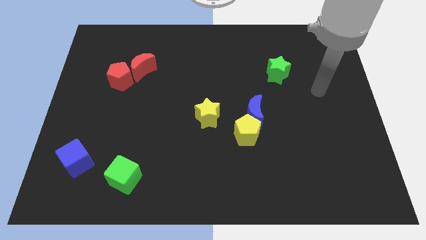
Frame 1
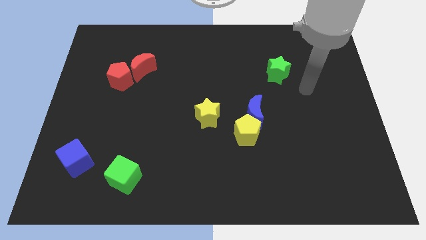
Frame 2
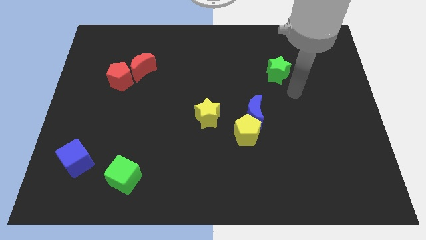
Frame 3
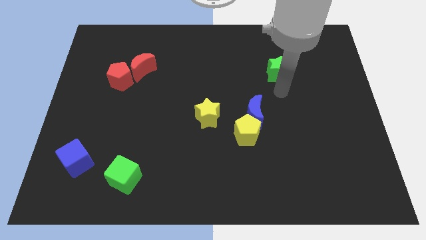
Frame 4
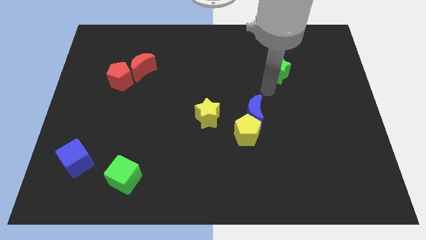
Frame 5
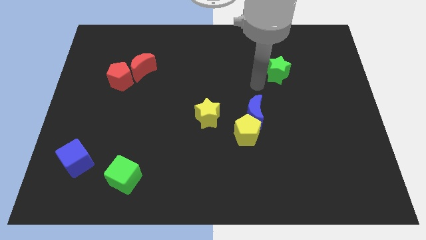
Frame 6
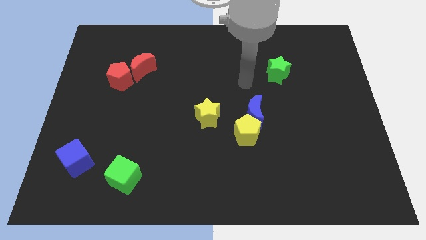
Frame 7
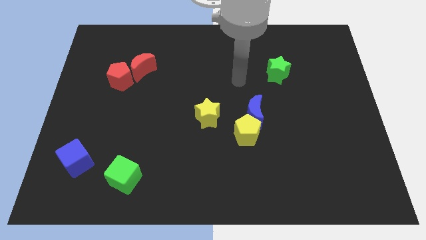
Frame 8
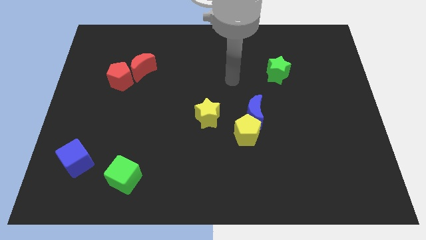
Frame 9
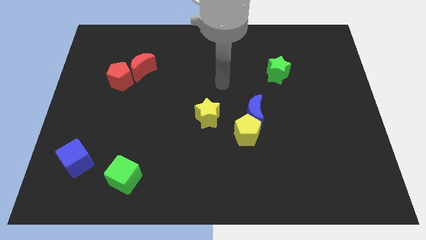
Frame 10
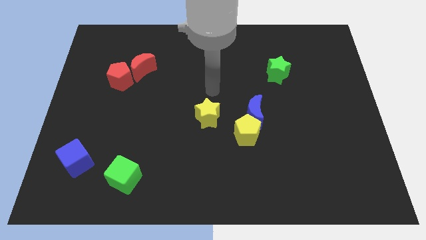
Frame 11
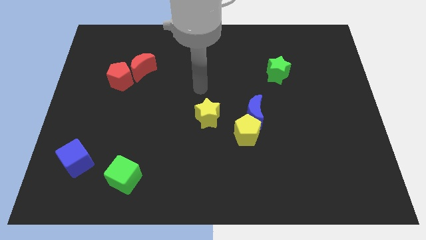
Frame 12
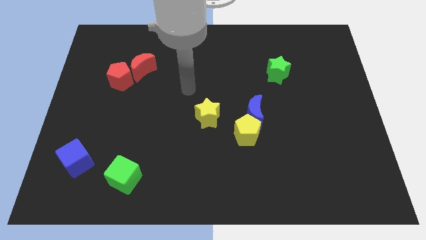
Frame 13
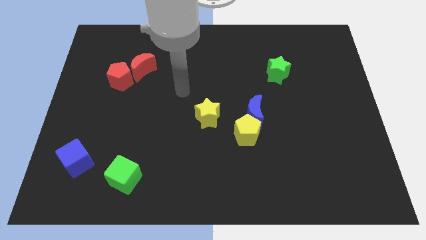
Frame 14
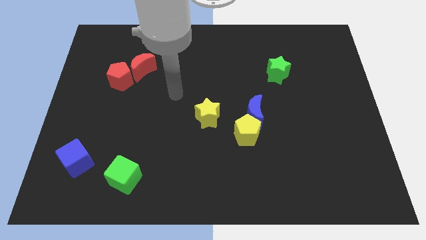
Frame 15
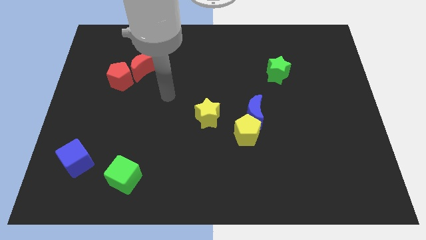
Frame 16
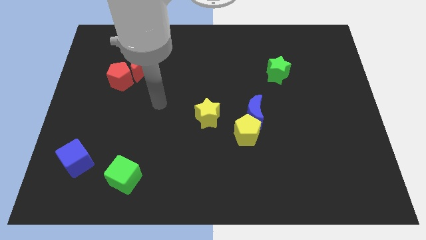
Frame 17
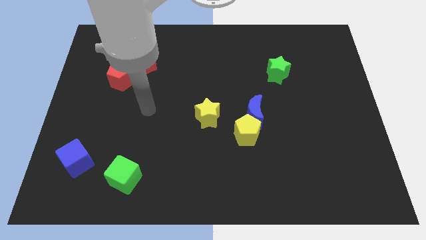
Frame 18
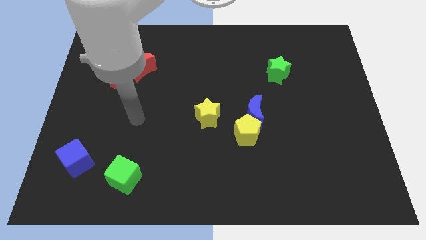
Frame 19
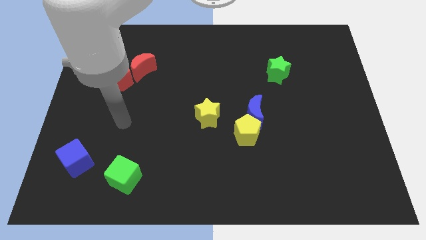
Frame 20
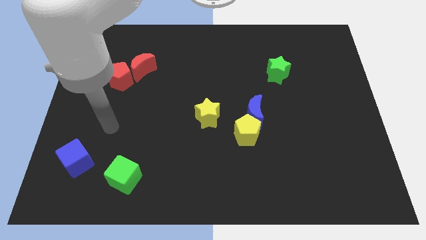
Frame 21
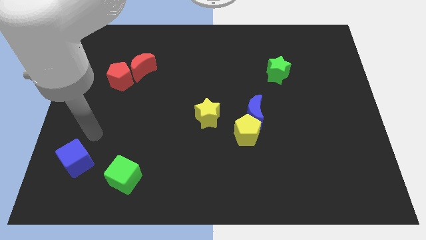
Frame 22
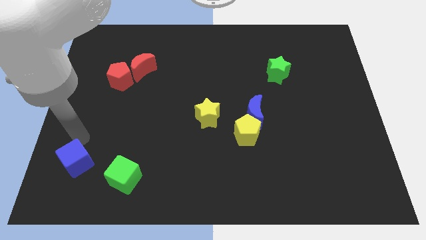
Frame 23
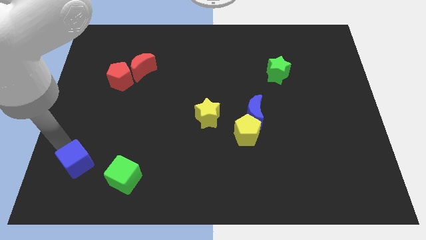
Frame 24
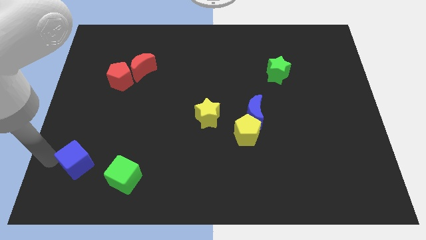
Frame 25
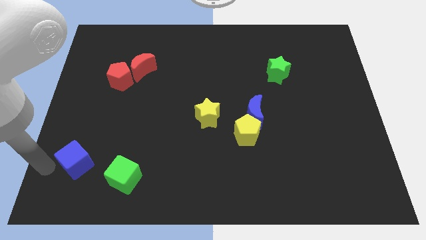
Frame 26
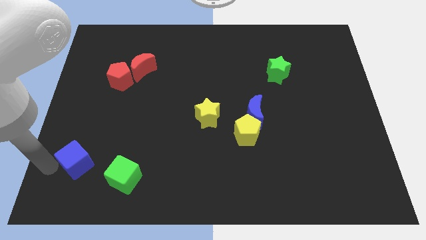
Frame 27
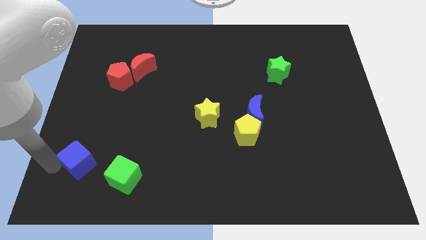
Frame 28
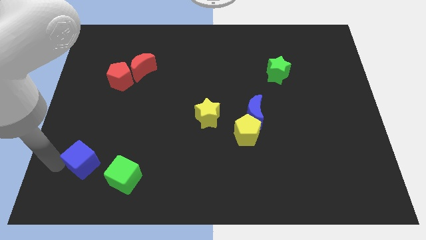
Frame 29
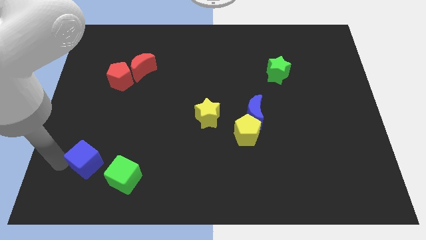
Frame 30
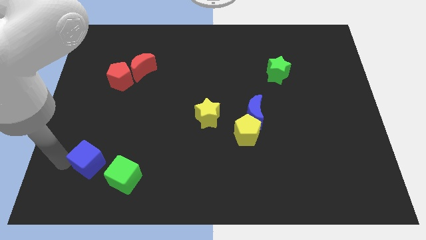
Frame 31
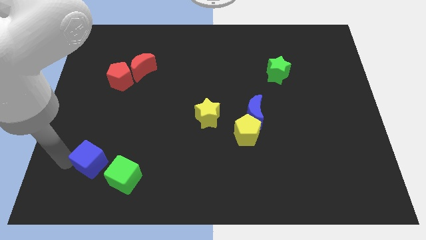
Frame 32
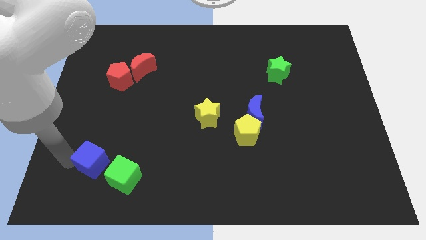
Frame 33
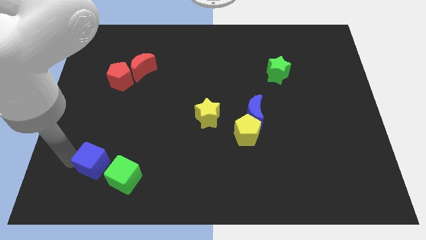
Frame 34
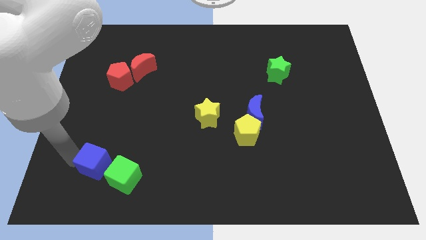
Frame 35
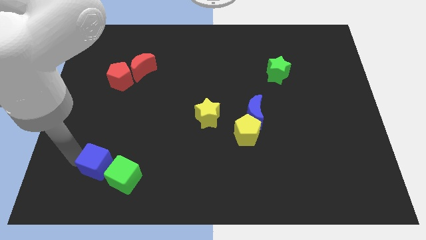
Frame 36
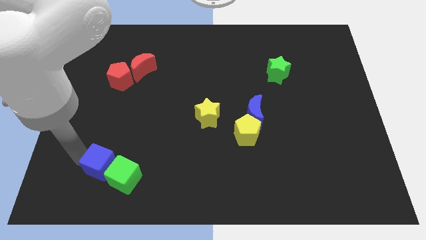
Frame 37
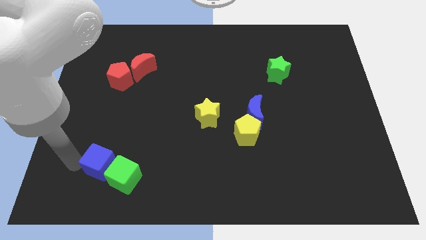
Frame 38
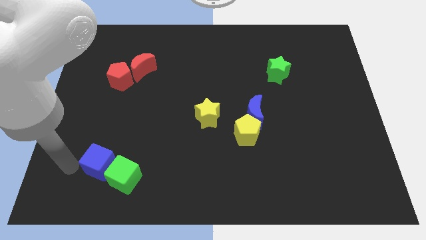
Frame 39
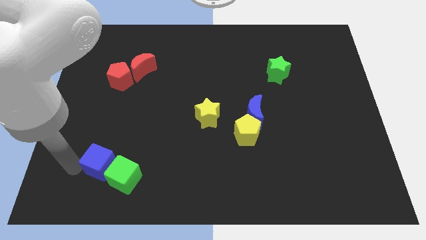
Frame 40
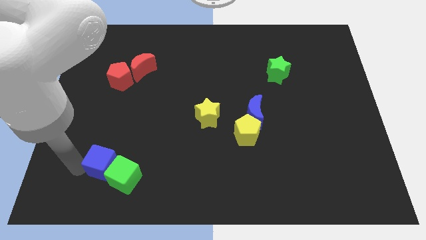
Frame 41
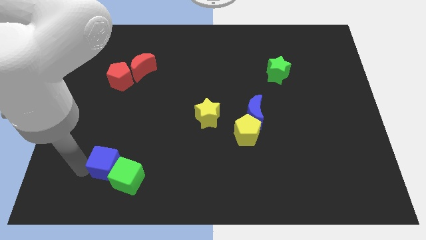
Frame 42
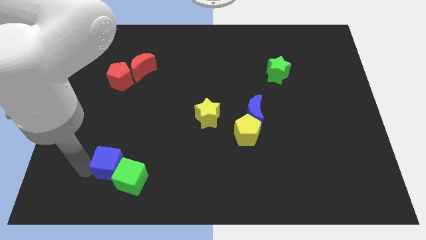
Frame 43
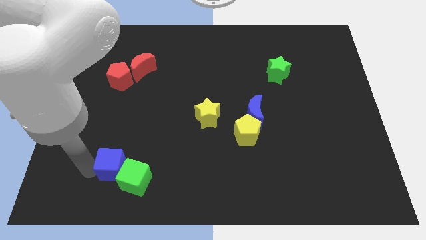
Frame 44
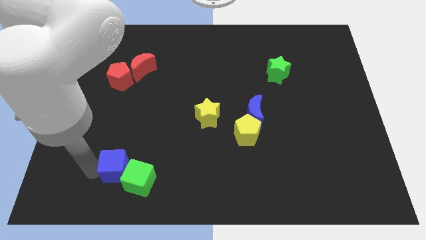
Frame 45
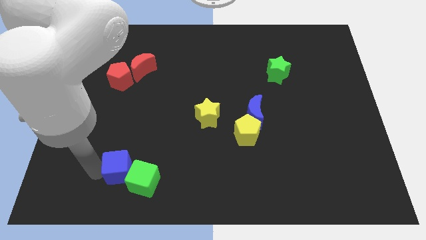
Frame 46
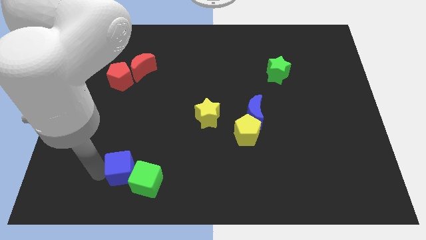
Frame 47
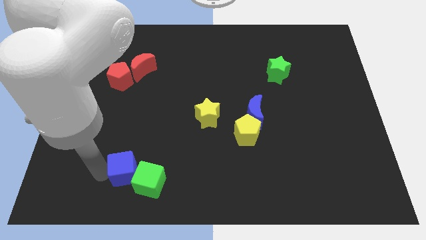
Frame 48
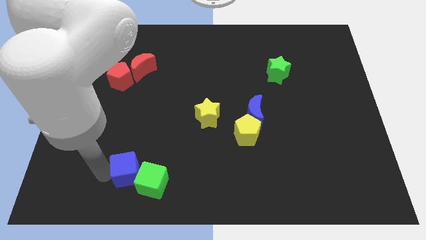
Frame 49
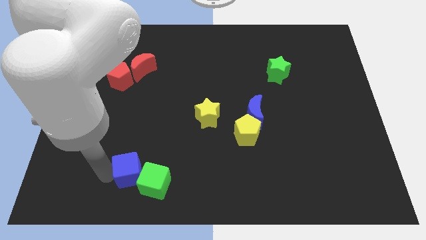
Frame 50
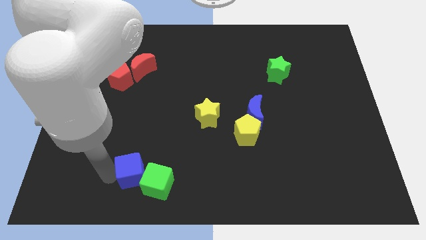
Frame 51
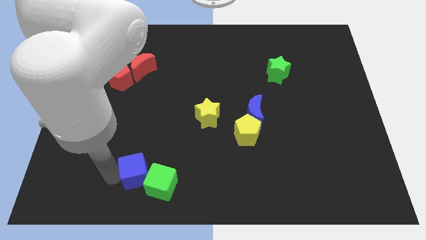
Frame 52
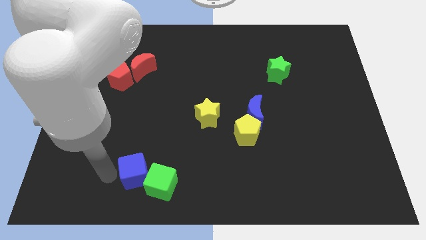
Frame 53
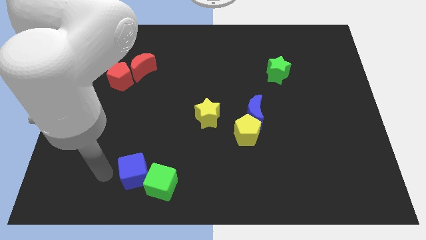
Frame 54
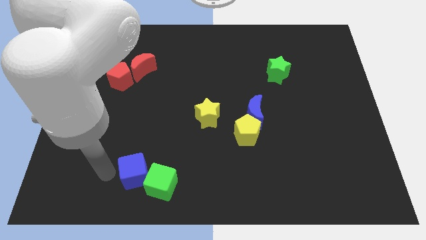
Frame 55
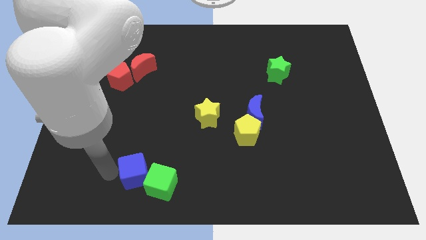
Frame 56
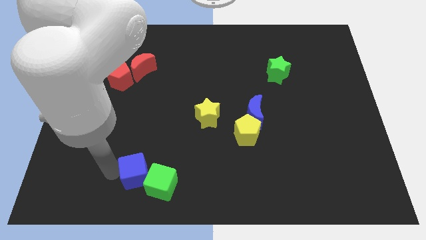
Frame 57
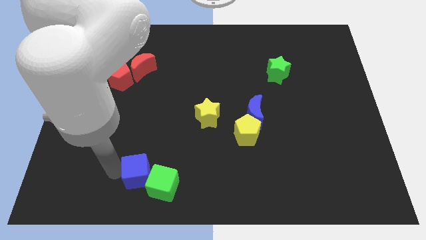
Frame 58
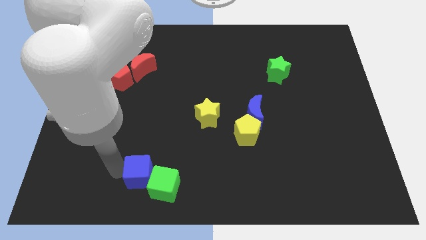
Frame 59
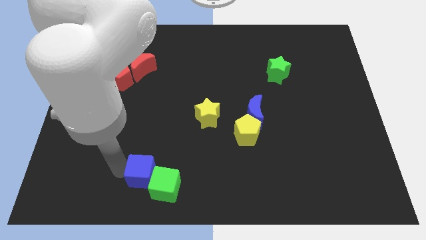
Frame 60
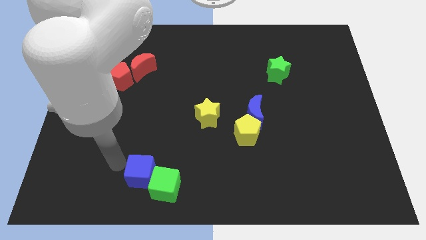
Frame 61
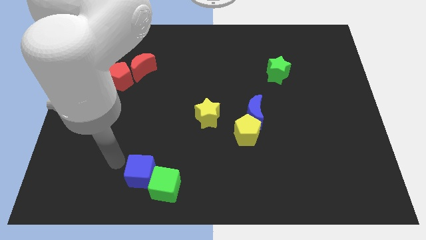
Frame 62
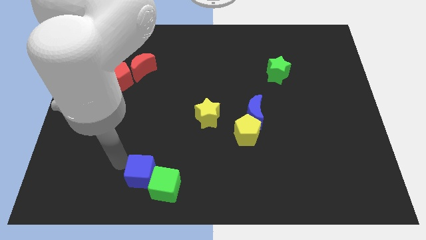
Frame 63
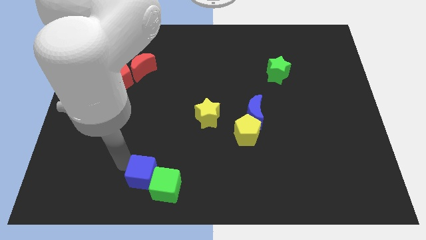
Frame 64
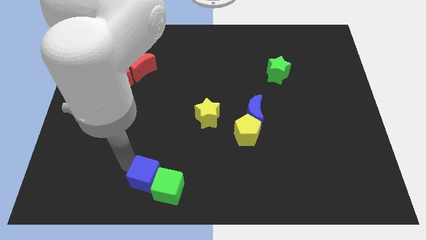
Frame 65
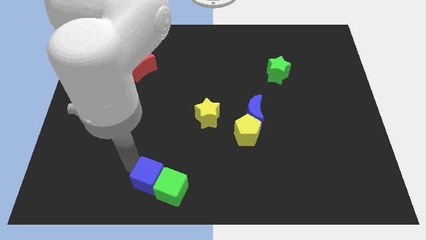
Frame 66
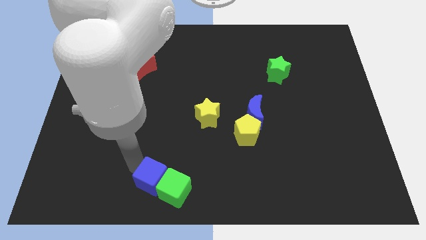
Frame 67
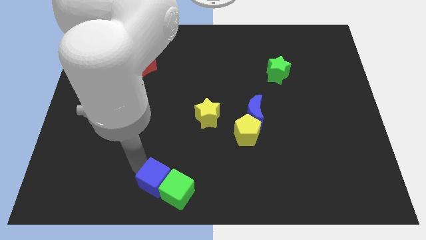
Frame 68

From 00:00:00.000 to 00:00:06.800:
move the blue cube to the bottom
